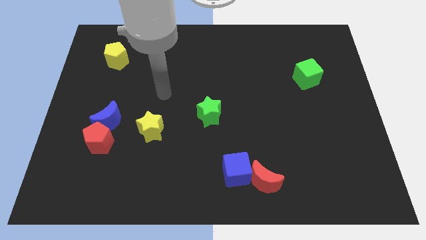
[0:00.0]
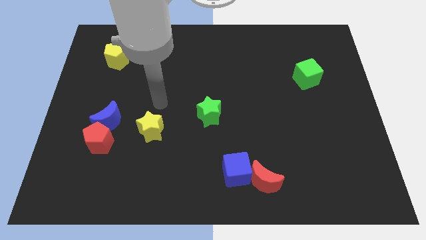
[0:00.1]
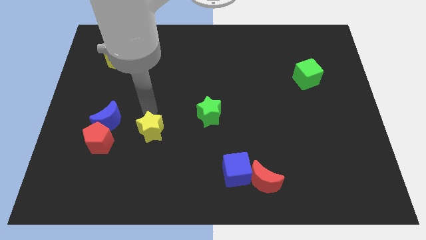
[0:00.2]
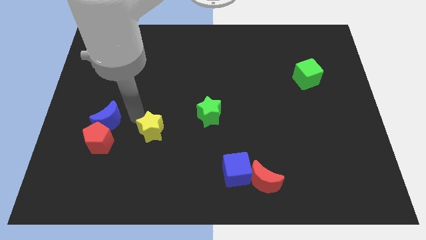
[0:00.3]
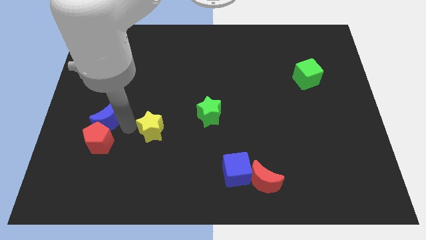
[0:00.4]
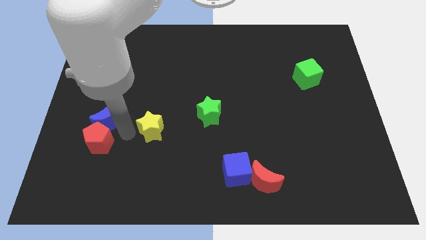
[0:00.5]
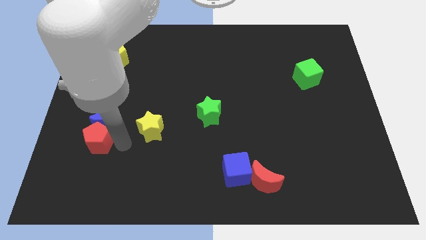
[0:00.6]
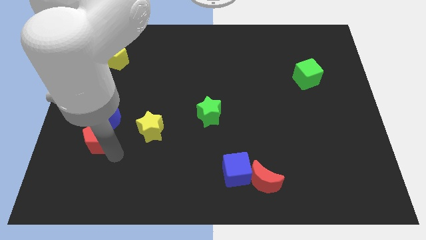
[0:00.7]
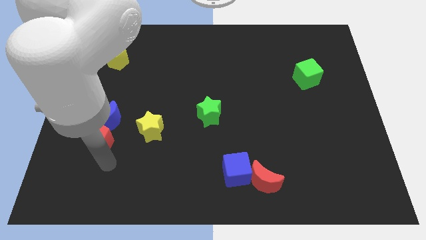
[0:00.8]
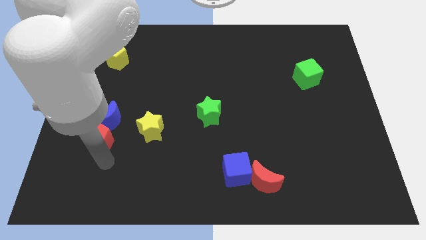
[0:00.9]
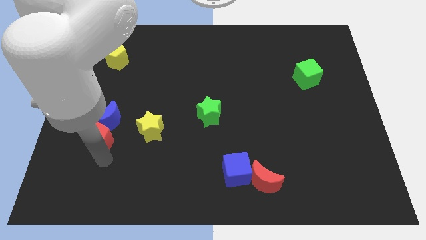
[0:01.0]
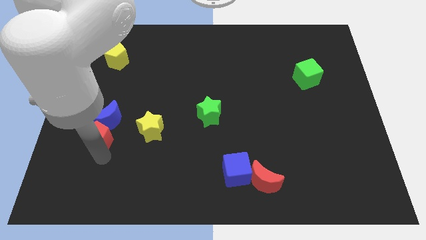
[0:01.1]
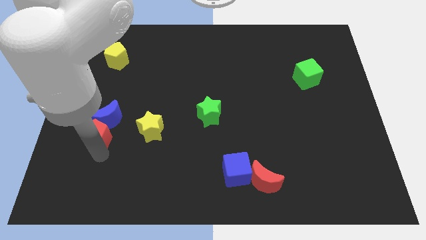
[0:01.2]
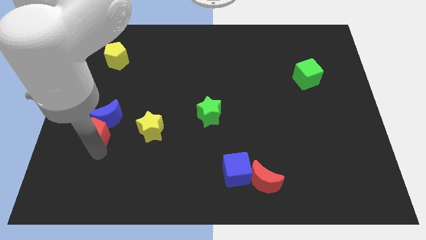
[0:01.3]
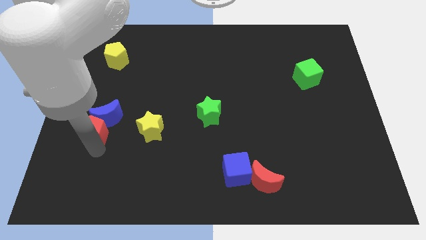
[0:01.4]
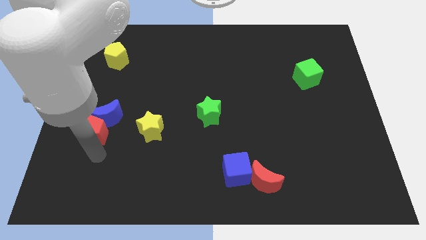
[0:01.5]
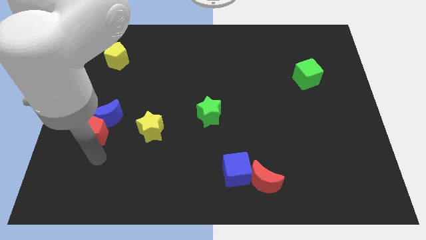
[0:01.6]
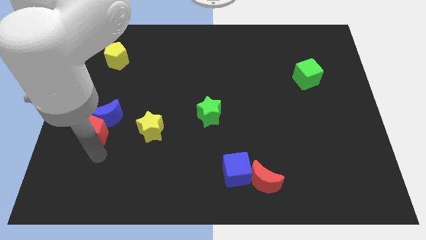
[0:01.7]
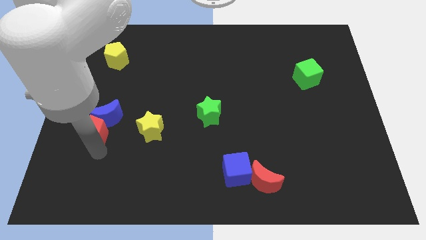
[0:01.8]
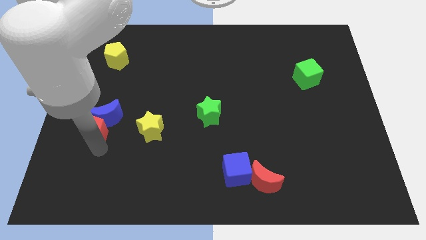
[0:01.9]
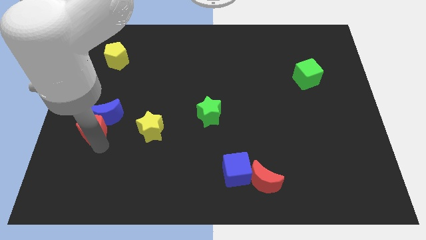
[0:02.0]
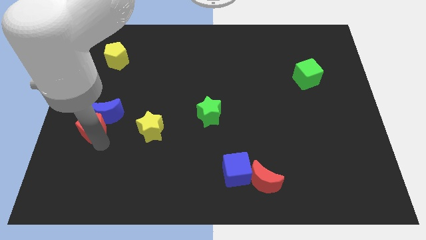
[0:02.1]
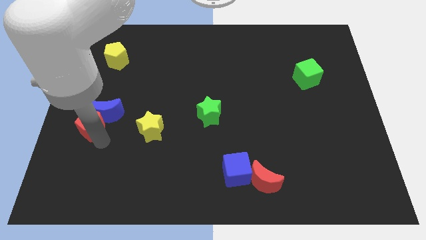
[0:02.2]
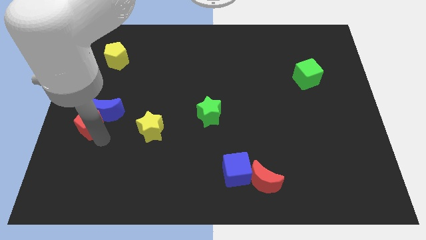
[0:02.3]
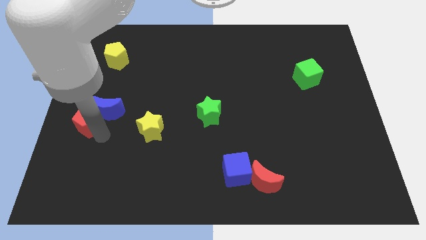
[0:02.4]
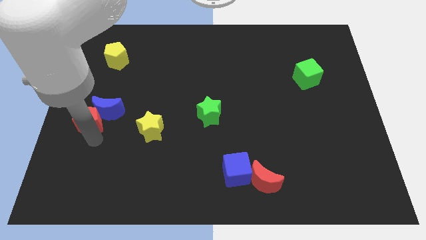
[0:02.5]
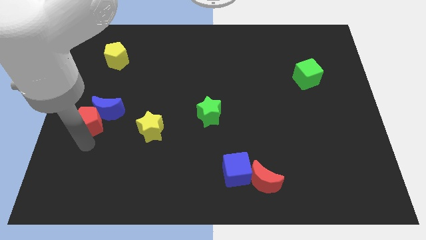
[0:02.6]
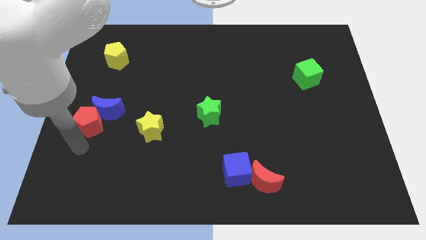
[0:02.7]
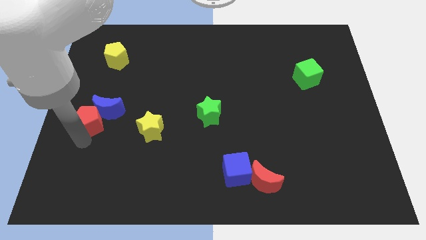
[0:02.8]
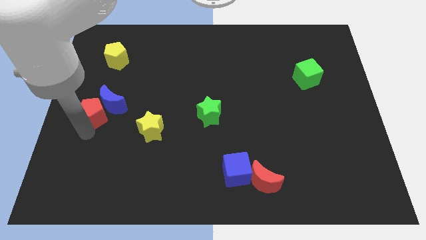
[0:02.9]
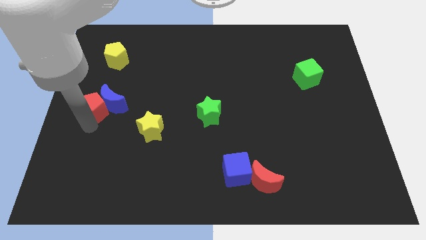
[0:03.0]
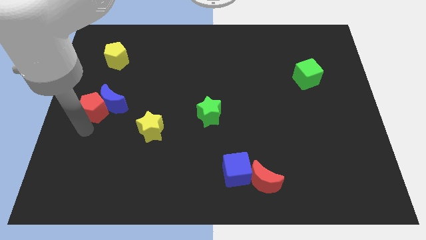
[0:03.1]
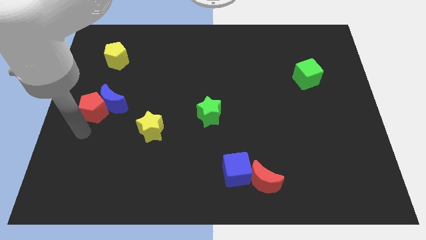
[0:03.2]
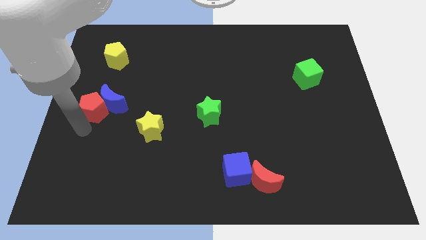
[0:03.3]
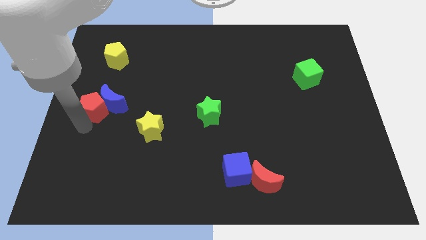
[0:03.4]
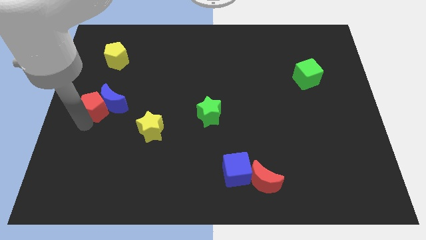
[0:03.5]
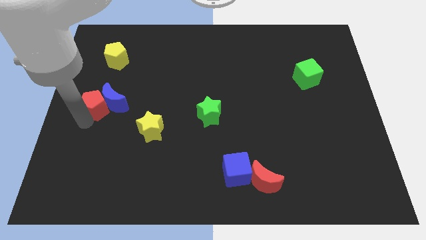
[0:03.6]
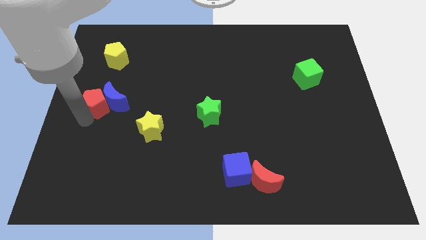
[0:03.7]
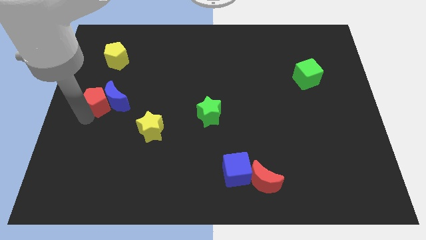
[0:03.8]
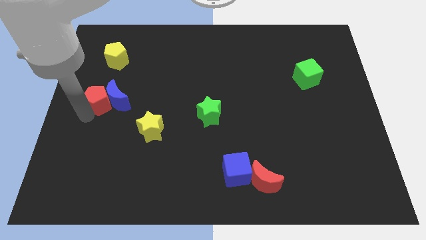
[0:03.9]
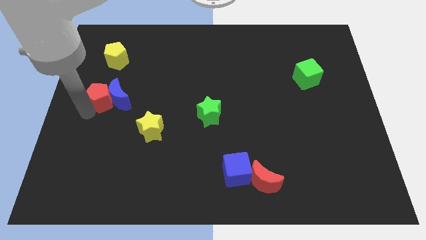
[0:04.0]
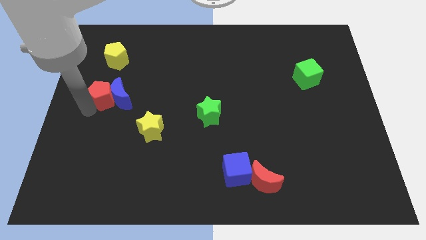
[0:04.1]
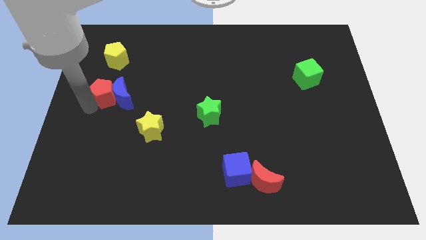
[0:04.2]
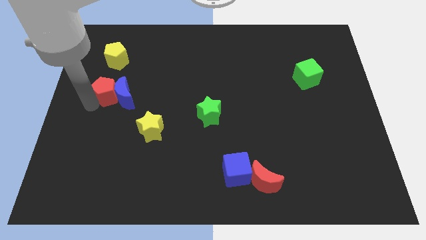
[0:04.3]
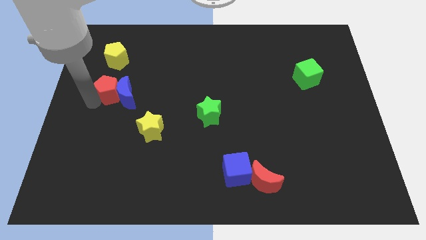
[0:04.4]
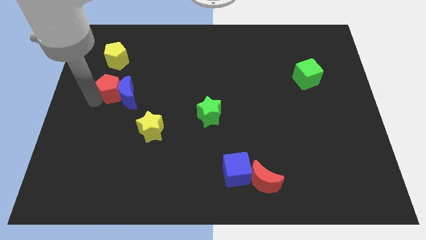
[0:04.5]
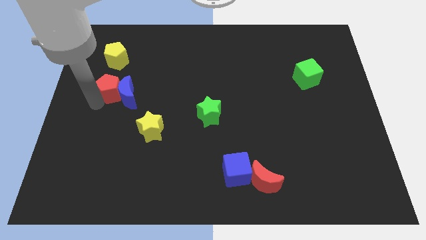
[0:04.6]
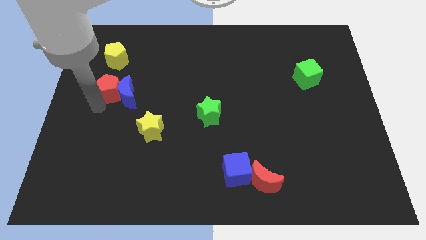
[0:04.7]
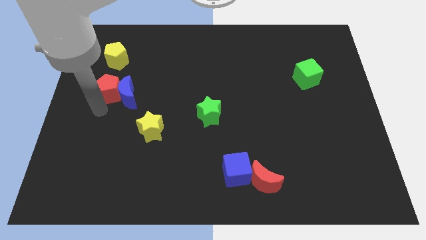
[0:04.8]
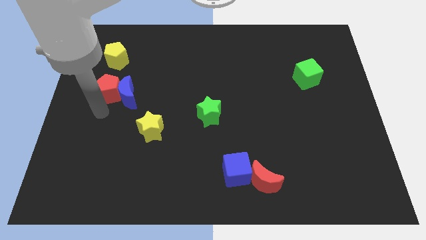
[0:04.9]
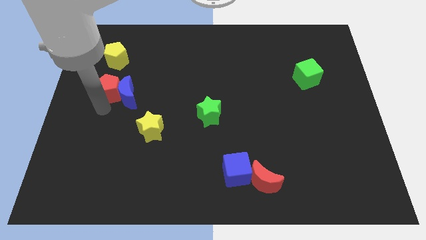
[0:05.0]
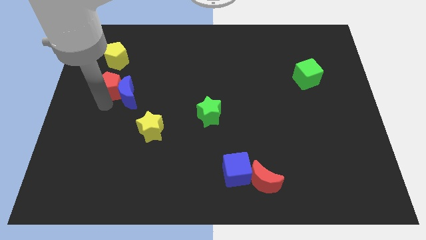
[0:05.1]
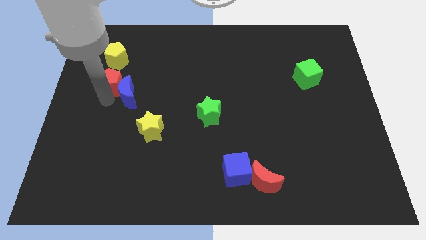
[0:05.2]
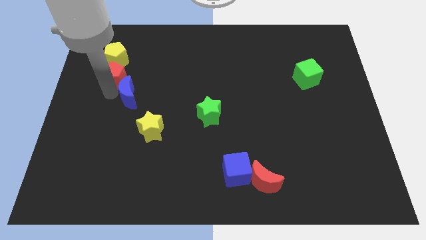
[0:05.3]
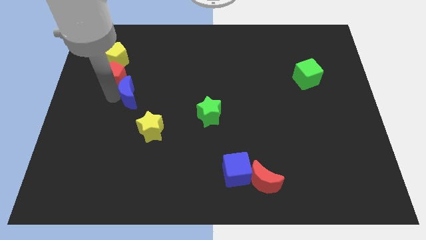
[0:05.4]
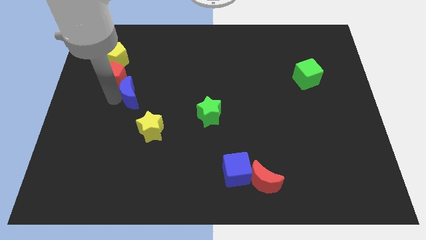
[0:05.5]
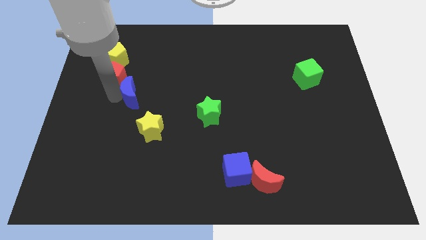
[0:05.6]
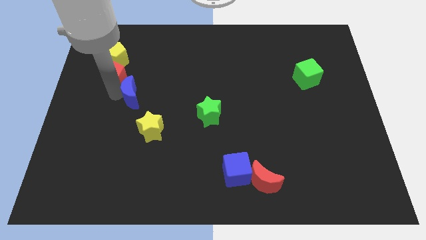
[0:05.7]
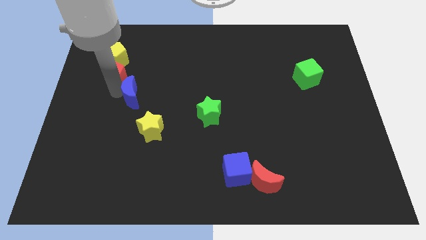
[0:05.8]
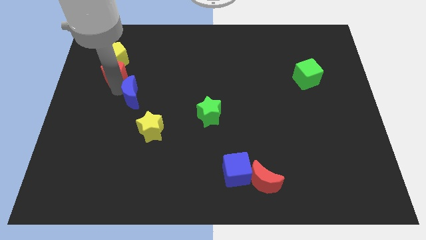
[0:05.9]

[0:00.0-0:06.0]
put the red pentagon towards the yellow pentagon

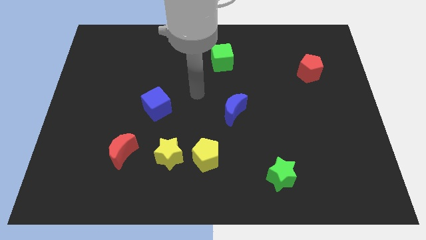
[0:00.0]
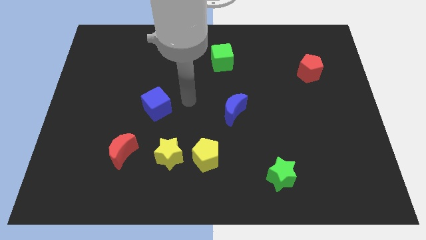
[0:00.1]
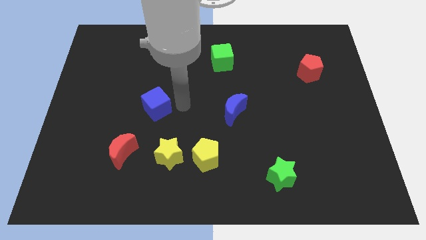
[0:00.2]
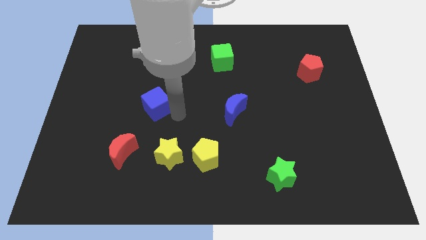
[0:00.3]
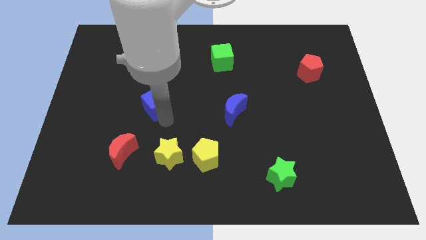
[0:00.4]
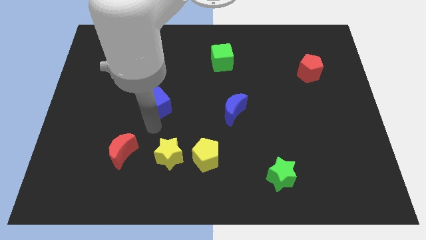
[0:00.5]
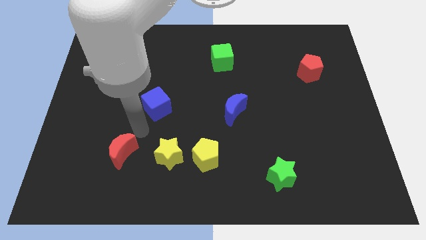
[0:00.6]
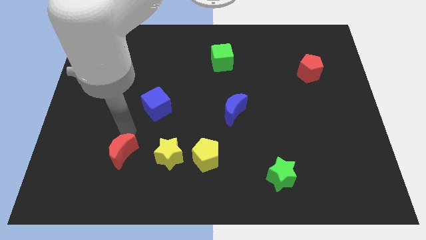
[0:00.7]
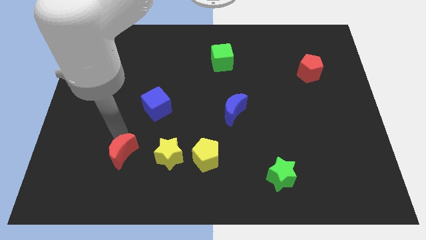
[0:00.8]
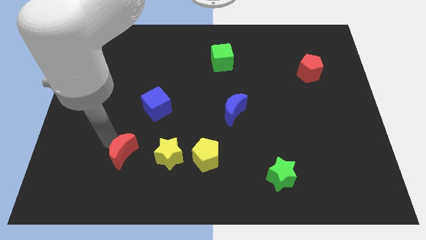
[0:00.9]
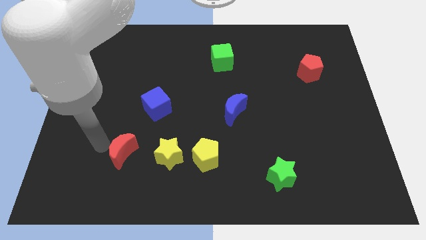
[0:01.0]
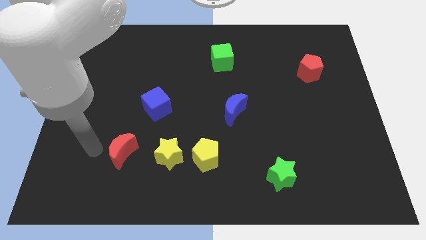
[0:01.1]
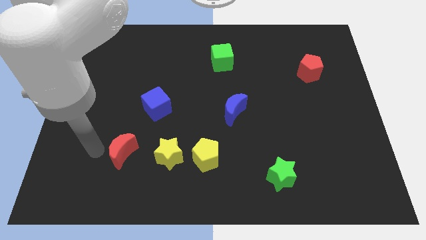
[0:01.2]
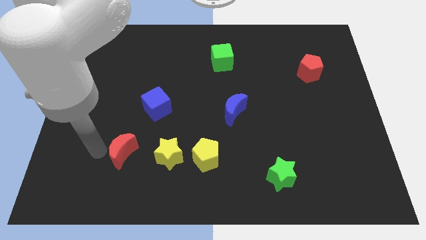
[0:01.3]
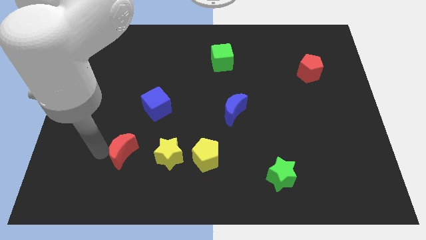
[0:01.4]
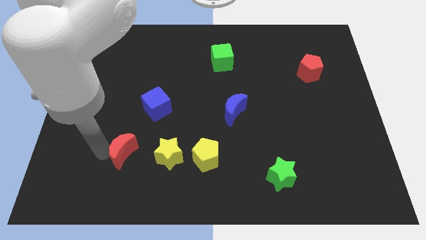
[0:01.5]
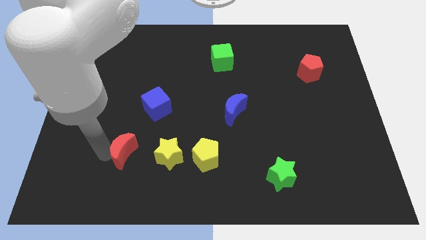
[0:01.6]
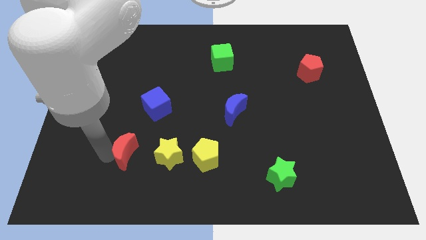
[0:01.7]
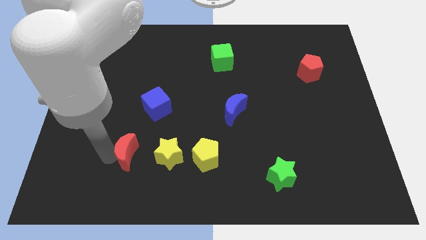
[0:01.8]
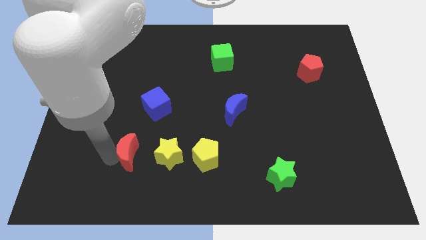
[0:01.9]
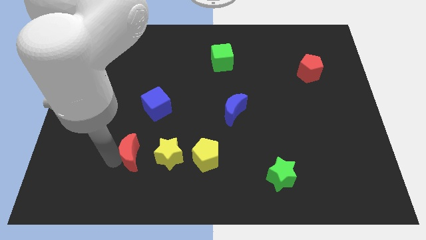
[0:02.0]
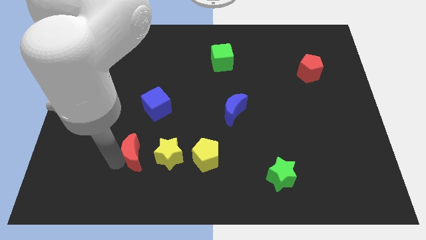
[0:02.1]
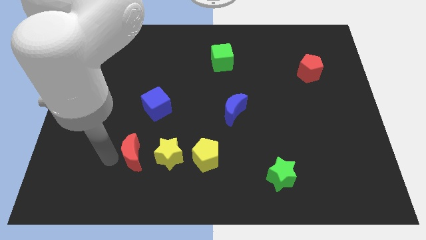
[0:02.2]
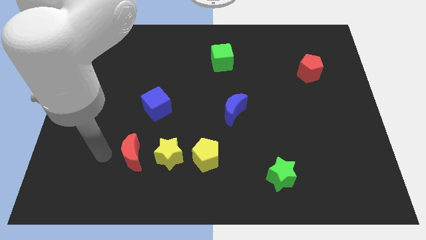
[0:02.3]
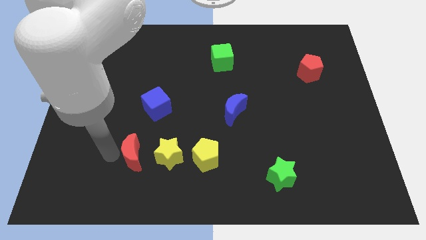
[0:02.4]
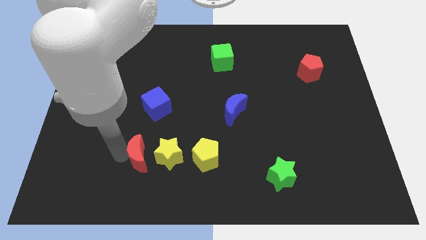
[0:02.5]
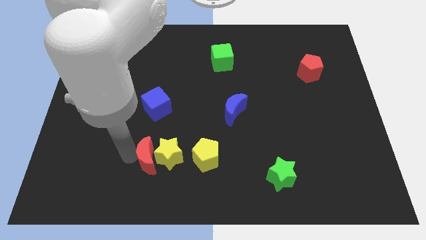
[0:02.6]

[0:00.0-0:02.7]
move the red moon close to the yellow star
